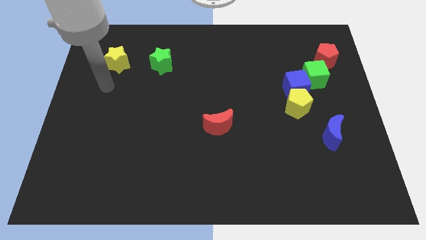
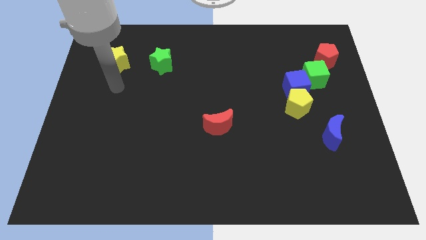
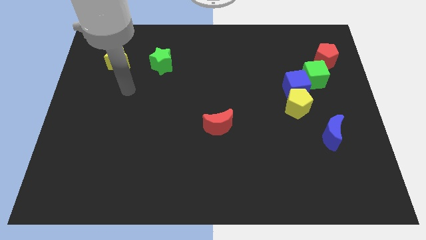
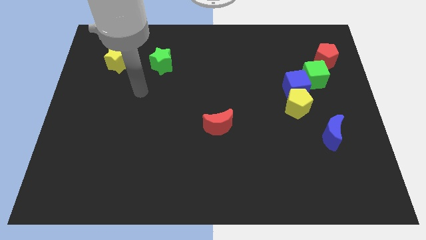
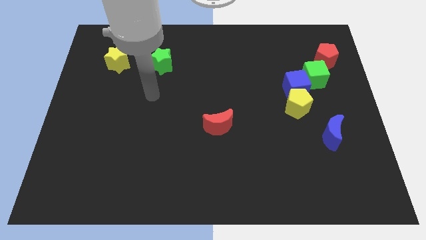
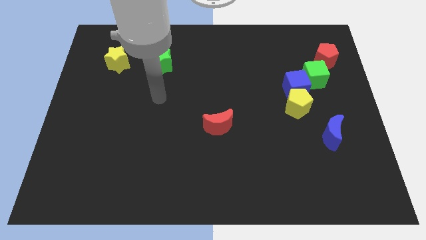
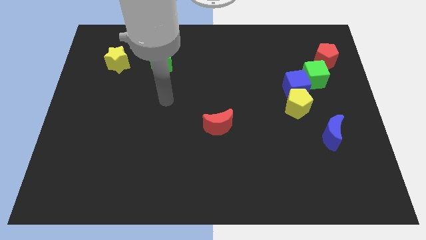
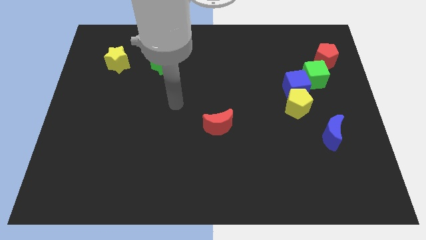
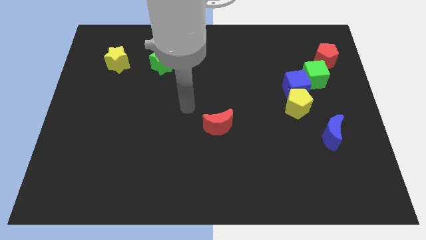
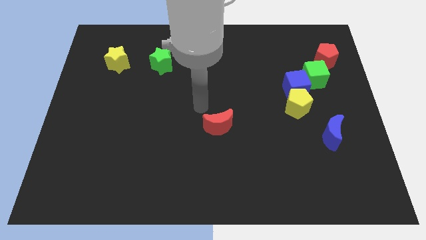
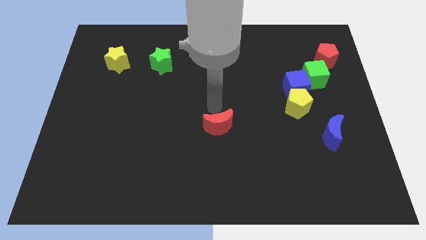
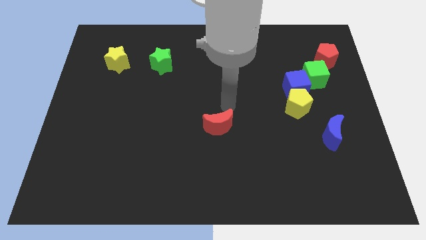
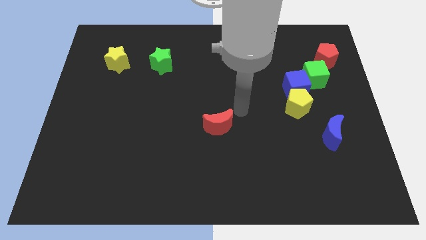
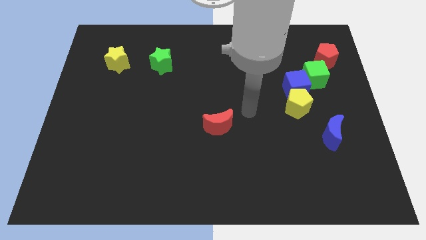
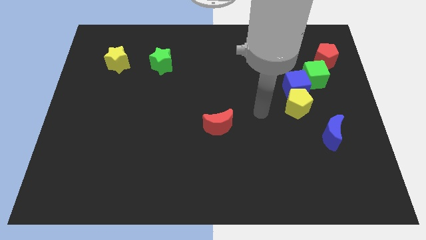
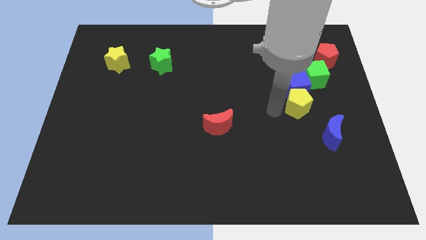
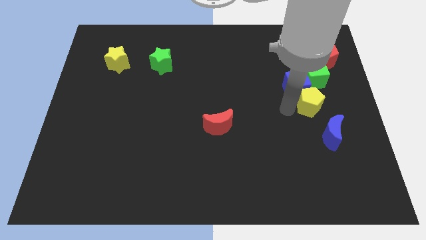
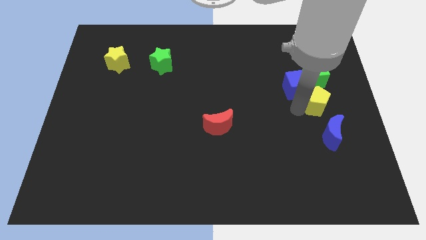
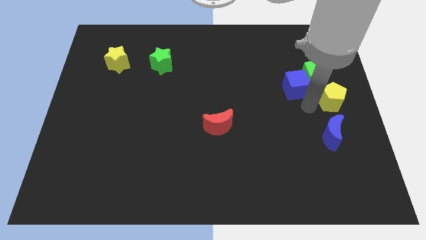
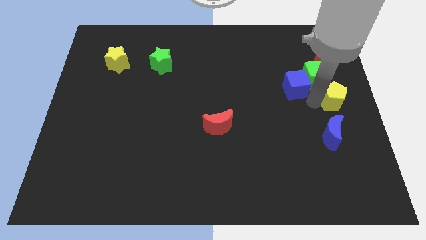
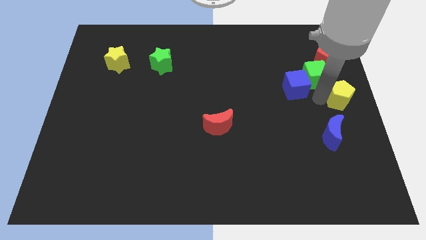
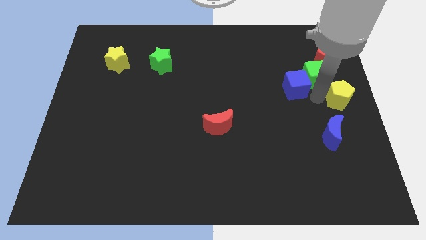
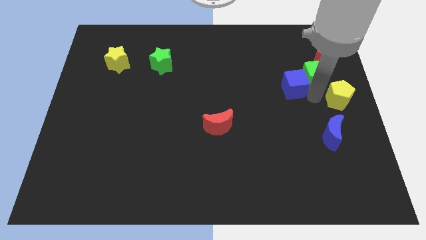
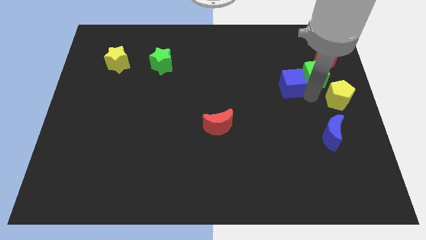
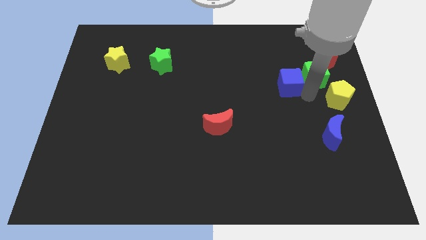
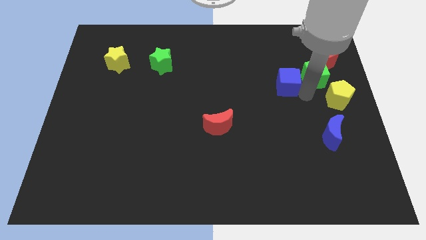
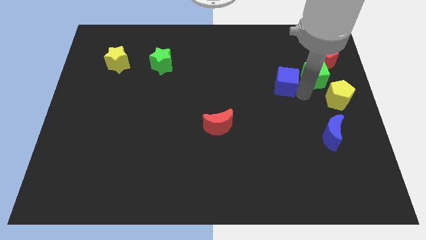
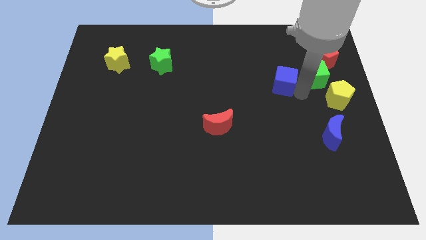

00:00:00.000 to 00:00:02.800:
pull the blue cube apart from the yellow pentagon and green cube

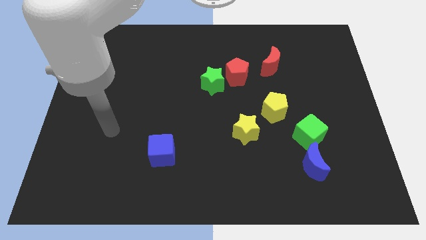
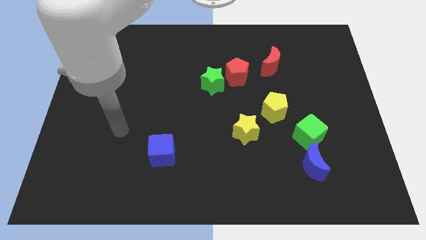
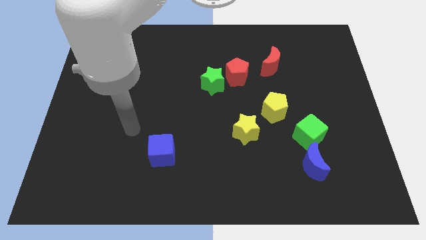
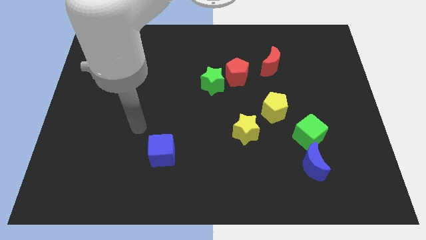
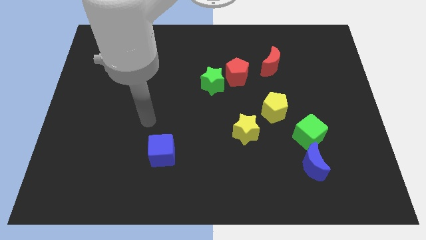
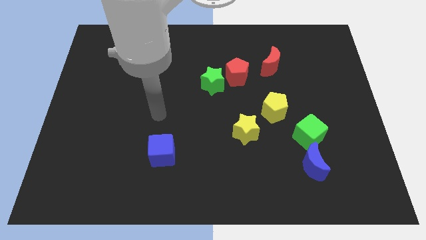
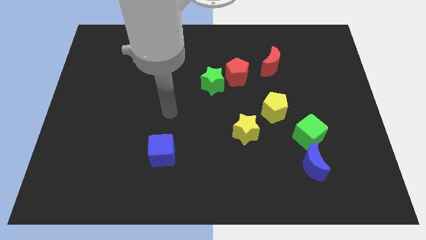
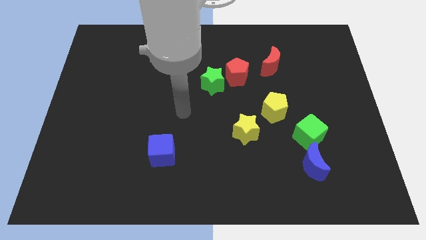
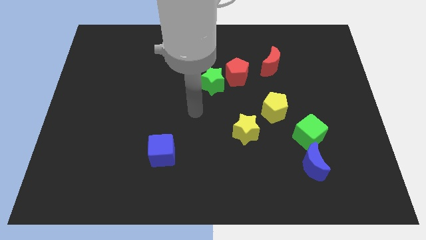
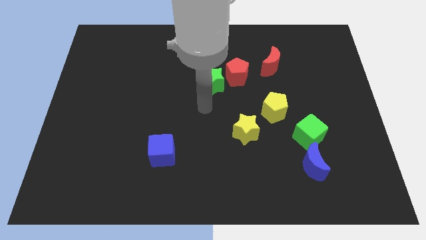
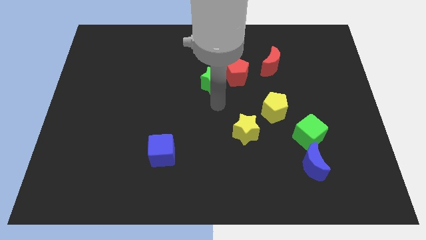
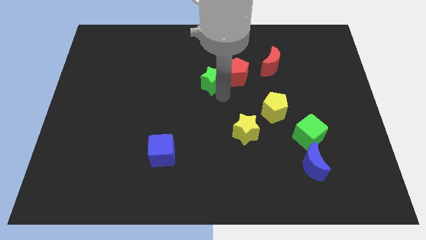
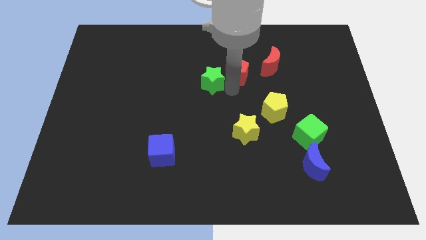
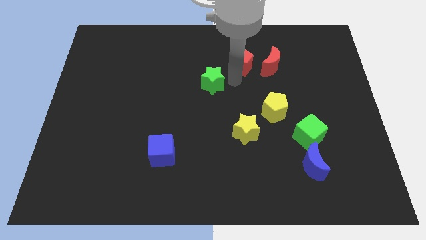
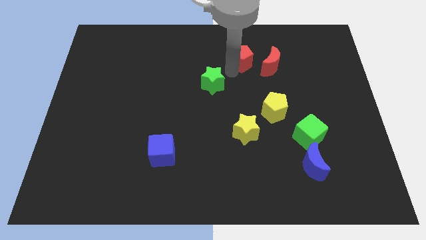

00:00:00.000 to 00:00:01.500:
separate the green star from the red pentagon

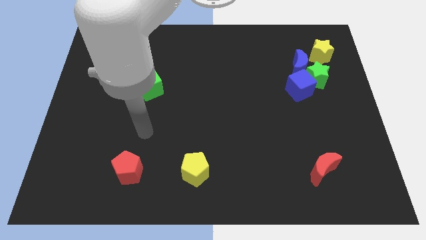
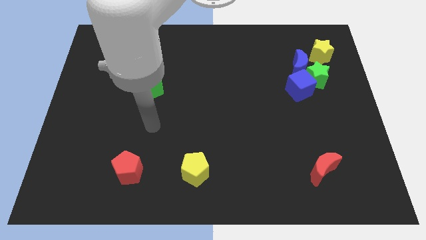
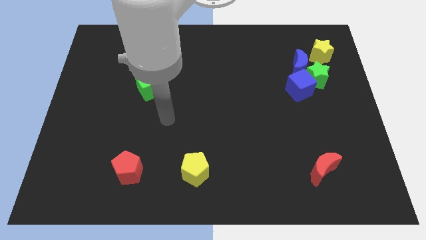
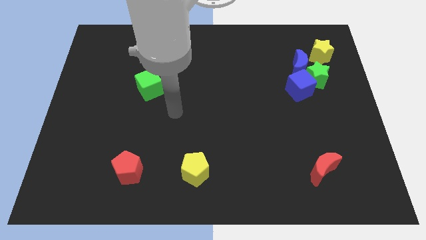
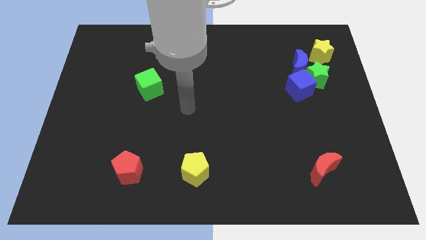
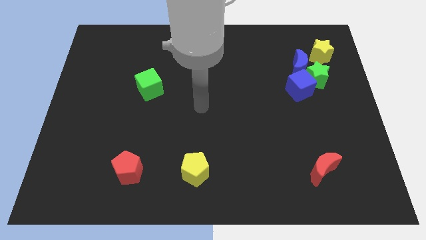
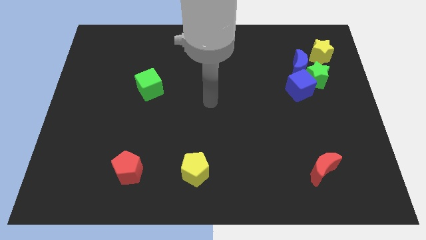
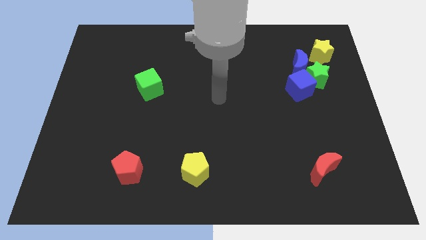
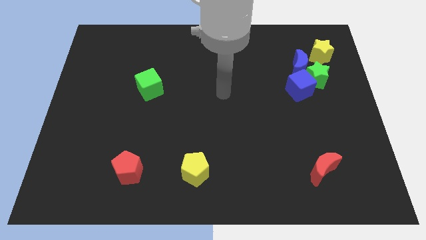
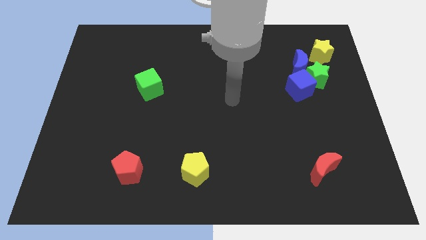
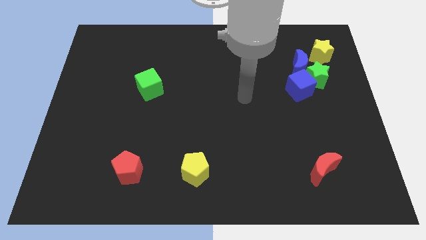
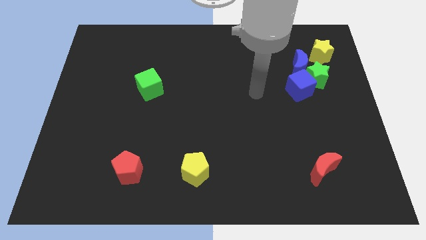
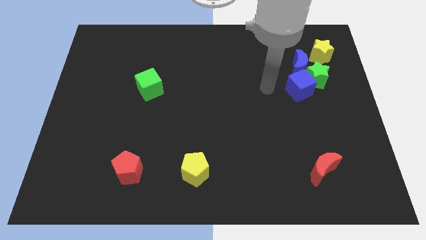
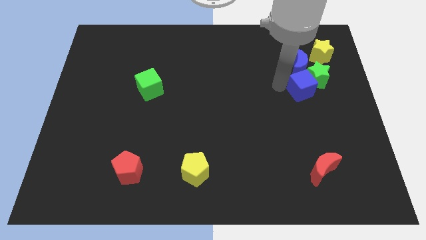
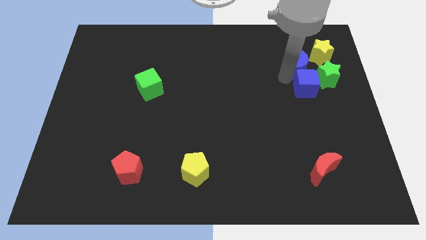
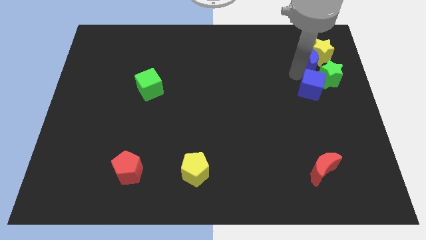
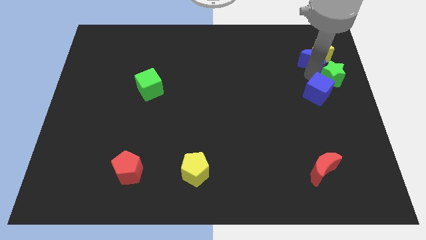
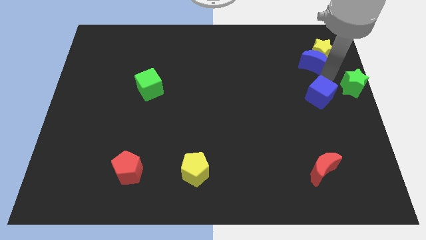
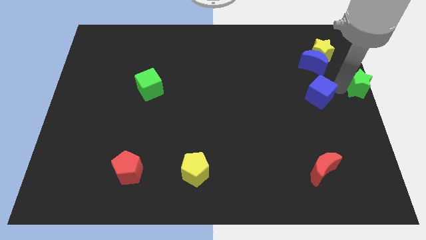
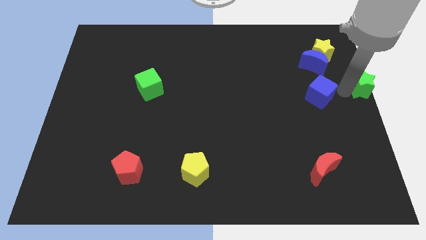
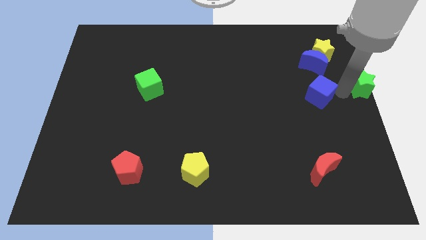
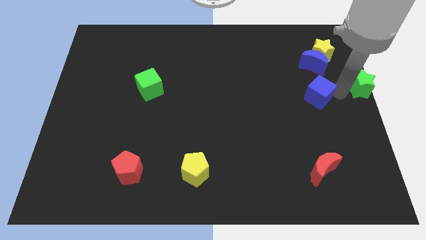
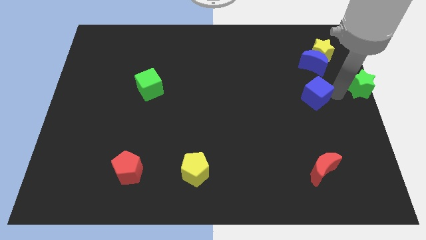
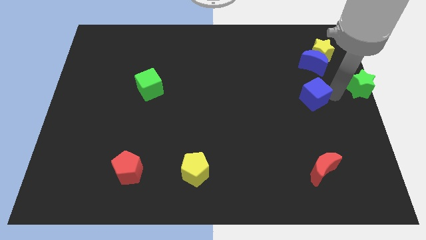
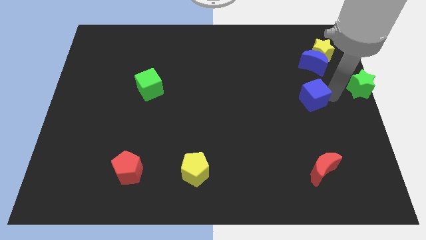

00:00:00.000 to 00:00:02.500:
move the blue cube away from the green star and blue moon

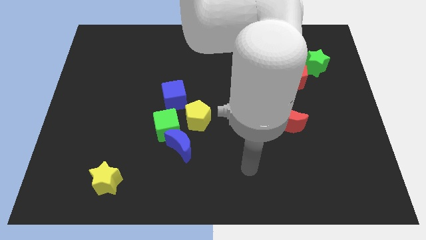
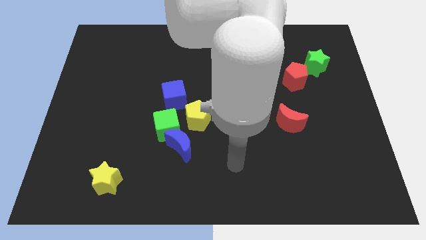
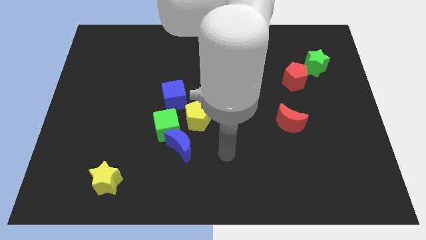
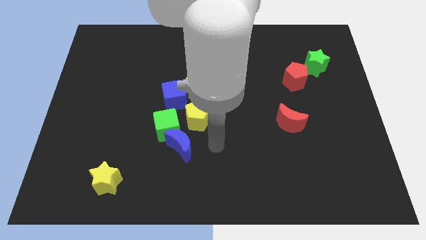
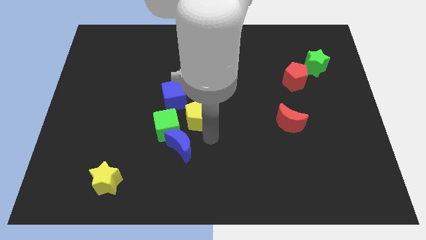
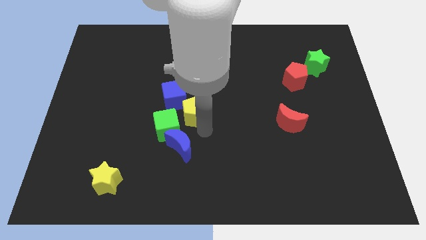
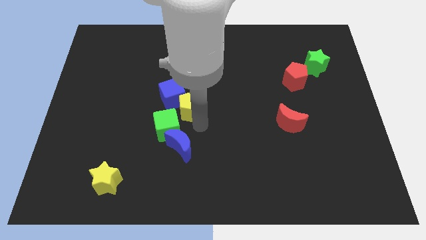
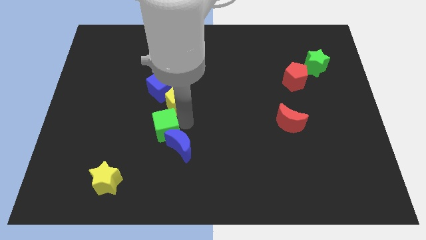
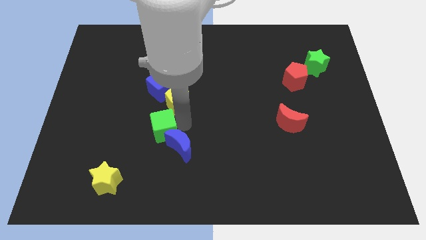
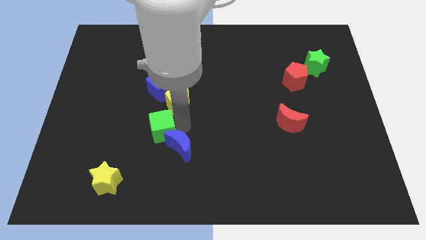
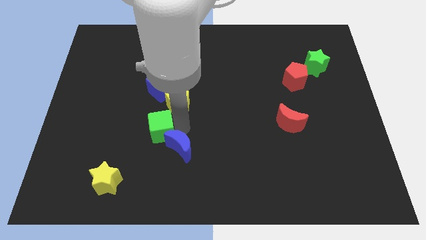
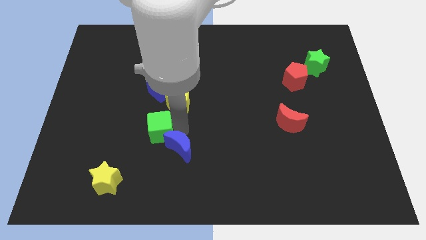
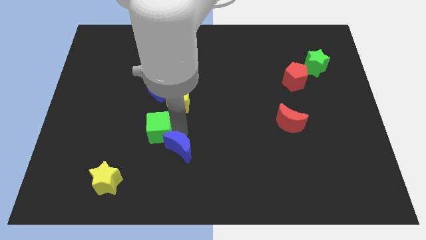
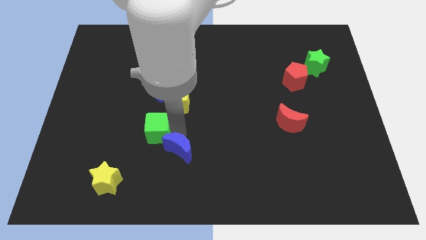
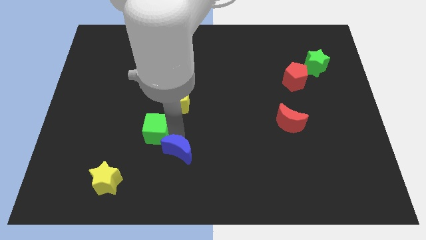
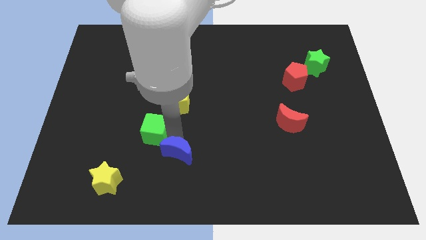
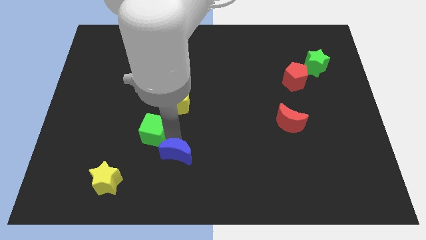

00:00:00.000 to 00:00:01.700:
pull the blue moon apart from the green cube and yellow pentagon

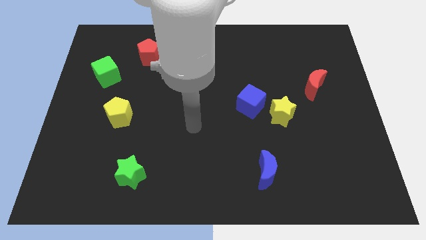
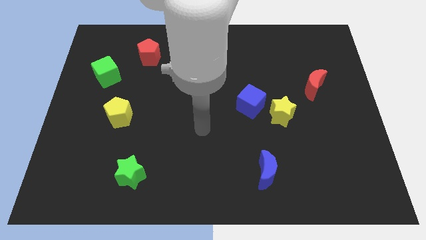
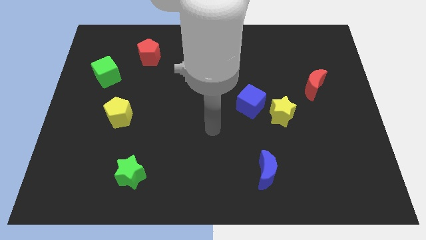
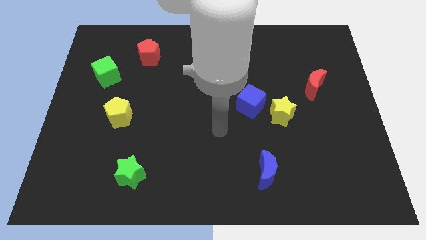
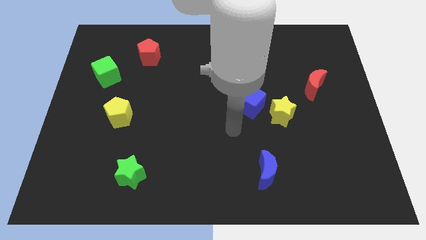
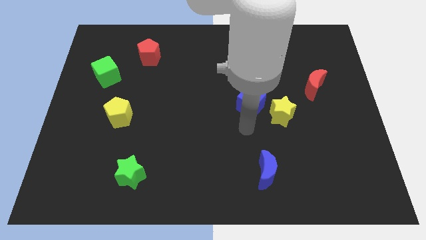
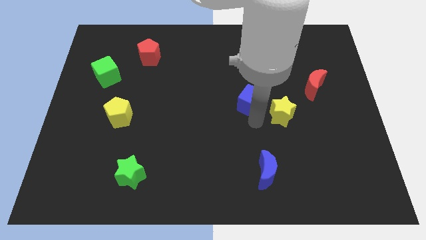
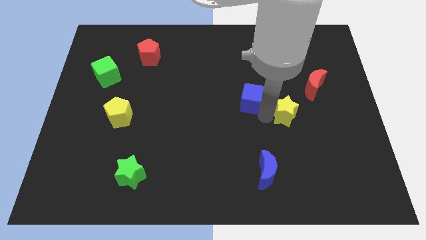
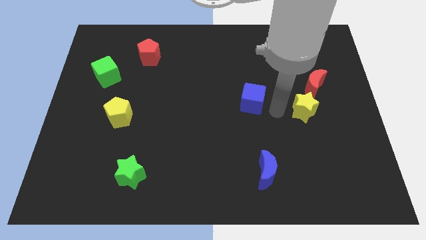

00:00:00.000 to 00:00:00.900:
pull the blue cube apart from the yellow star
